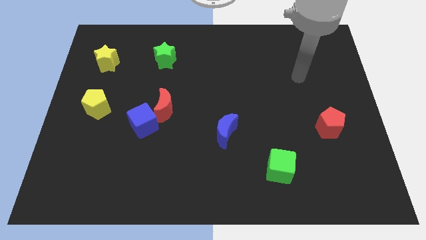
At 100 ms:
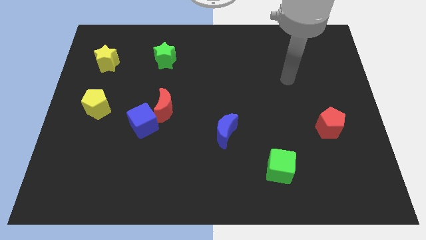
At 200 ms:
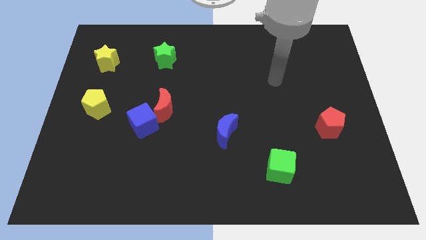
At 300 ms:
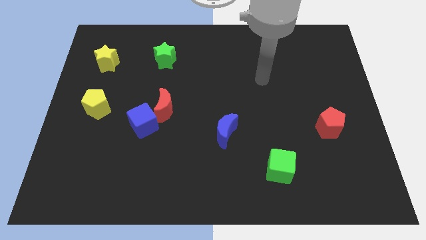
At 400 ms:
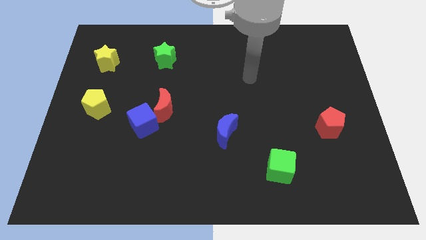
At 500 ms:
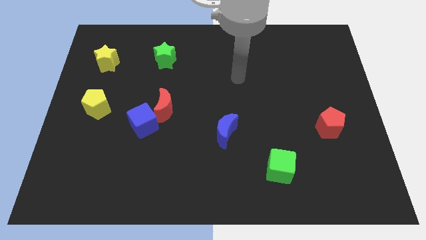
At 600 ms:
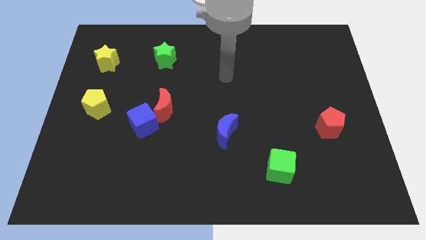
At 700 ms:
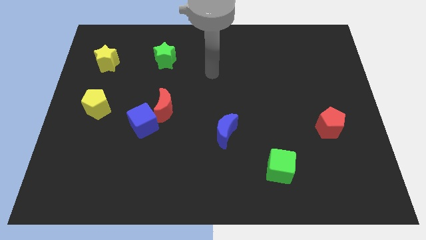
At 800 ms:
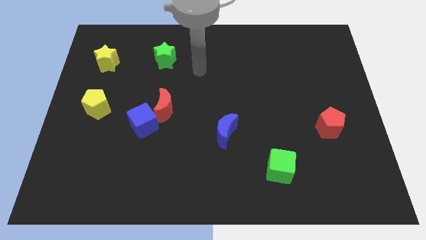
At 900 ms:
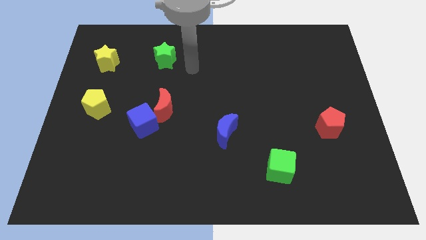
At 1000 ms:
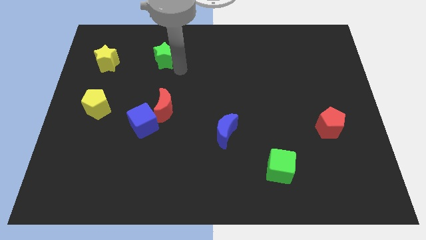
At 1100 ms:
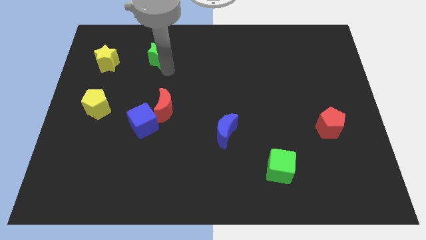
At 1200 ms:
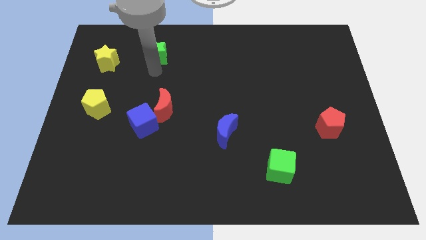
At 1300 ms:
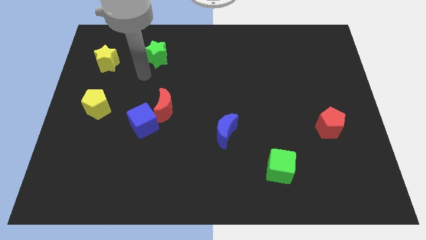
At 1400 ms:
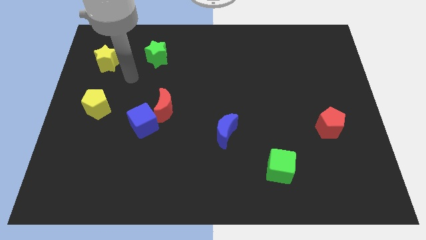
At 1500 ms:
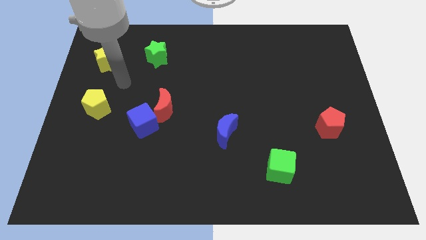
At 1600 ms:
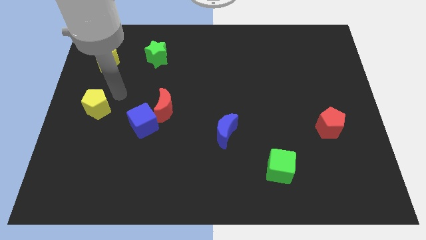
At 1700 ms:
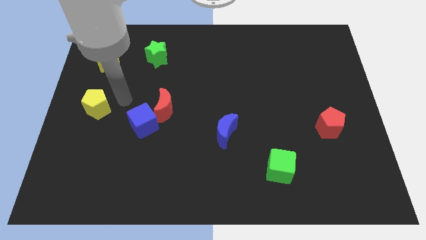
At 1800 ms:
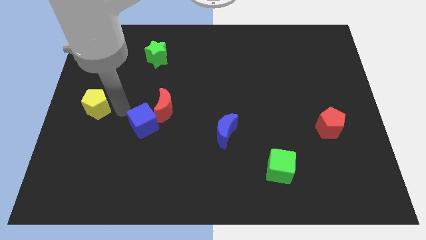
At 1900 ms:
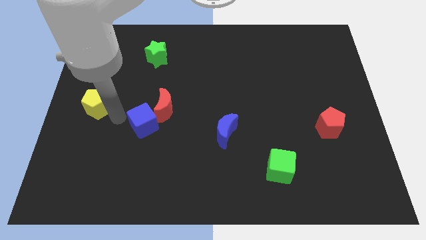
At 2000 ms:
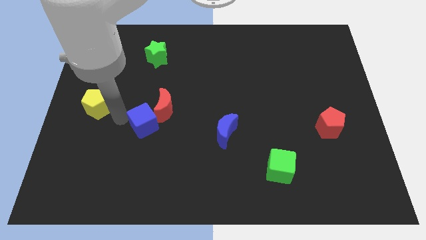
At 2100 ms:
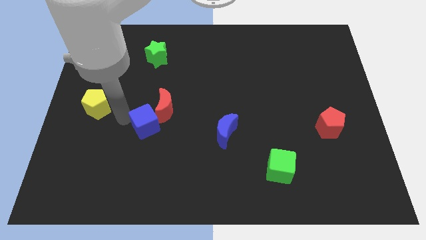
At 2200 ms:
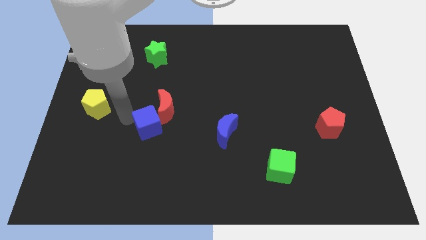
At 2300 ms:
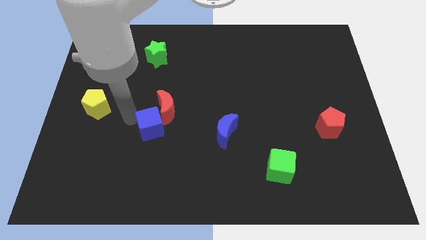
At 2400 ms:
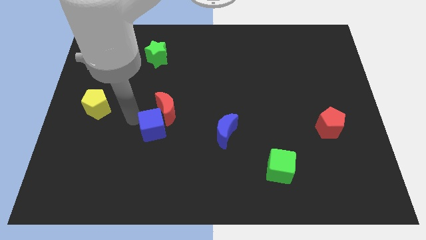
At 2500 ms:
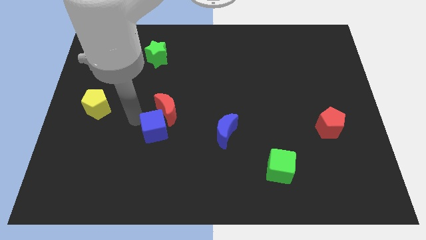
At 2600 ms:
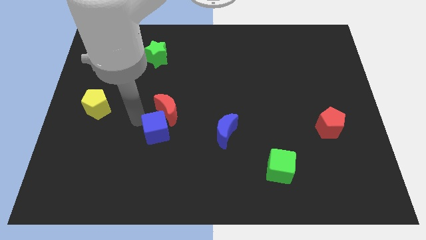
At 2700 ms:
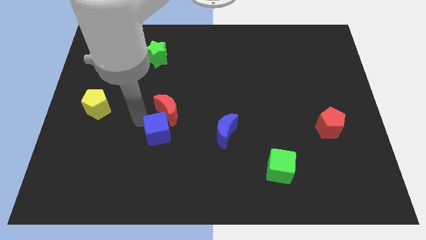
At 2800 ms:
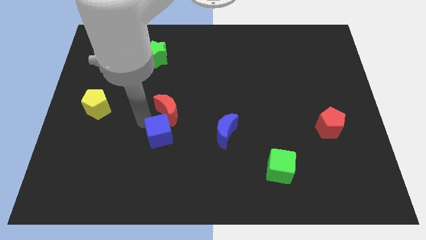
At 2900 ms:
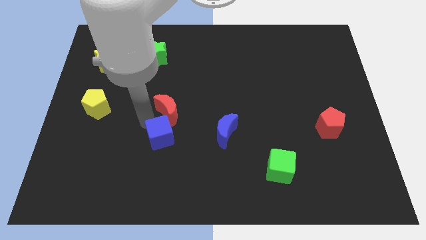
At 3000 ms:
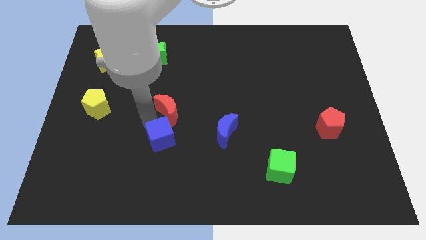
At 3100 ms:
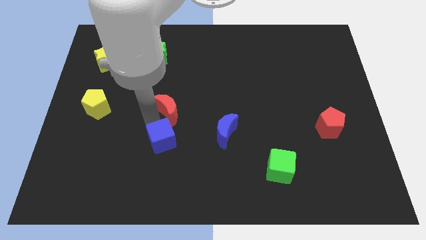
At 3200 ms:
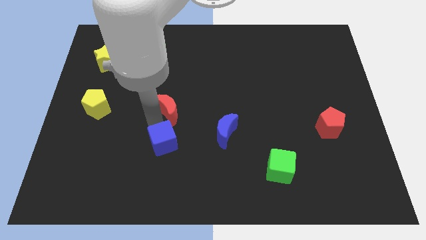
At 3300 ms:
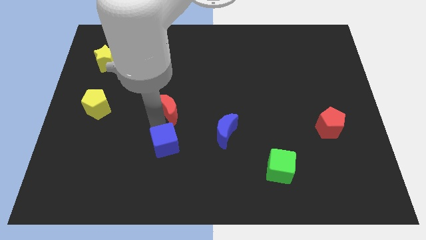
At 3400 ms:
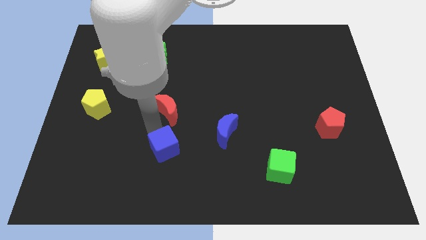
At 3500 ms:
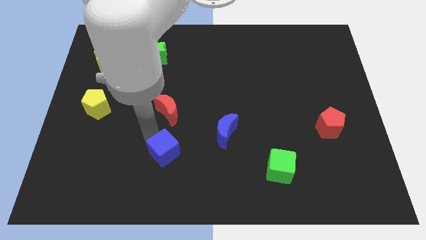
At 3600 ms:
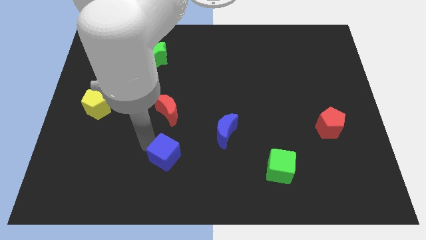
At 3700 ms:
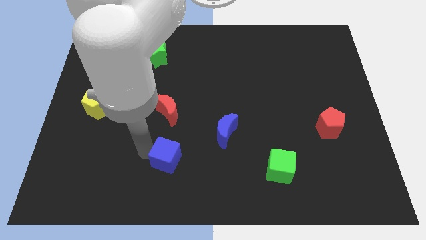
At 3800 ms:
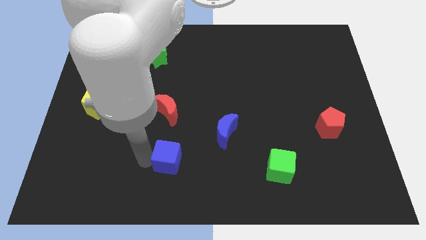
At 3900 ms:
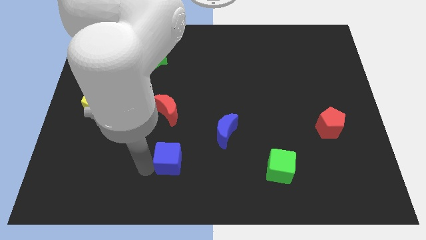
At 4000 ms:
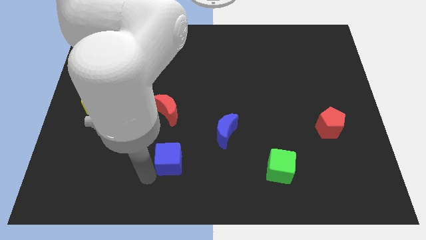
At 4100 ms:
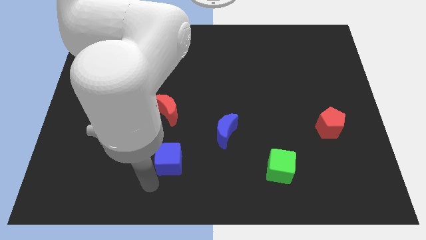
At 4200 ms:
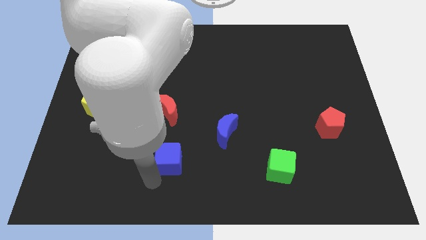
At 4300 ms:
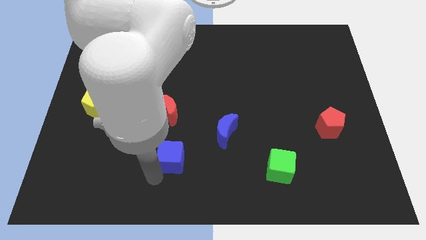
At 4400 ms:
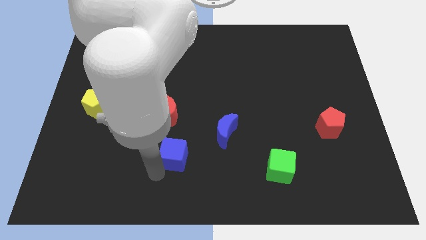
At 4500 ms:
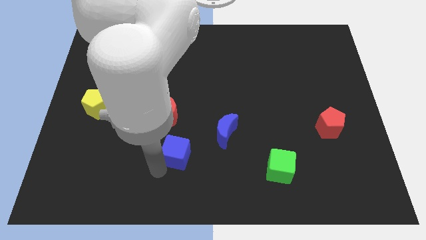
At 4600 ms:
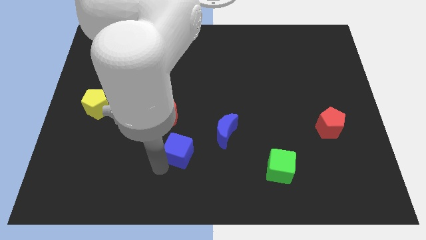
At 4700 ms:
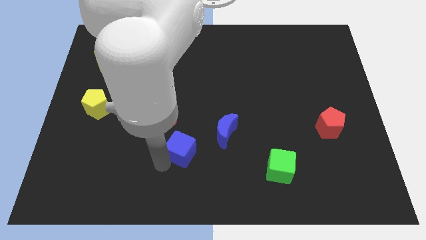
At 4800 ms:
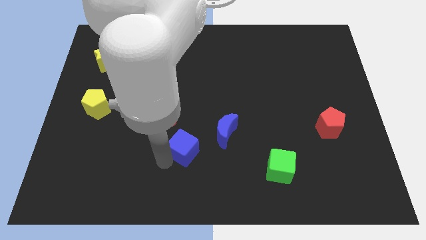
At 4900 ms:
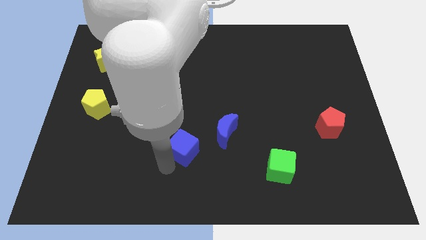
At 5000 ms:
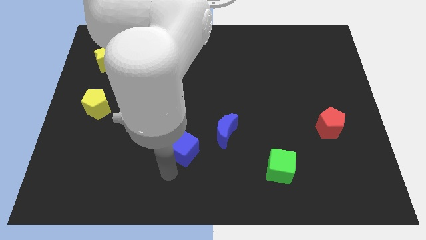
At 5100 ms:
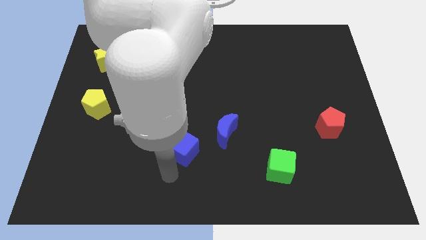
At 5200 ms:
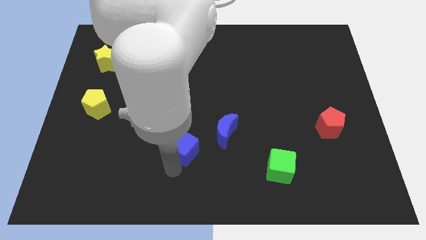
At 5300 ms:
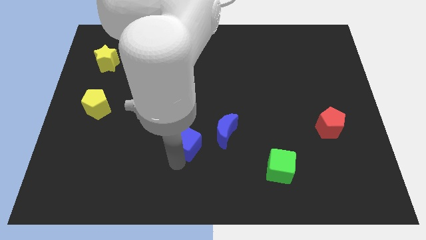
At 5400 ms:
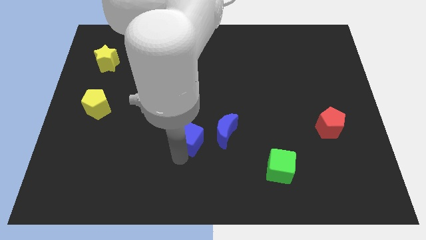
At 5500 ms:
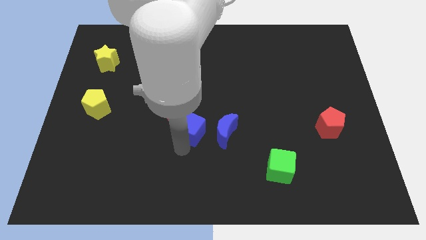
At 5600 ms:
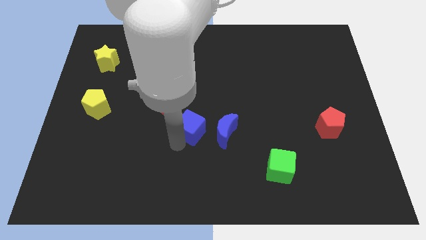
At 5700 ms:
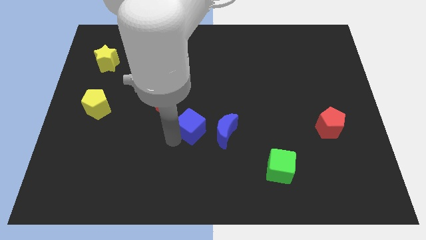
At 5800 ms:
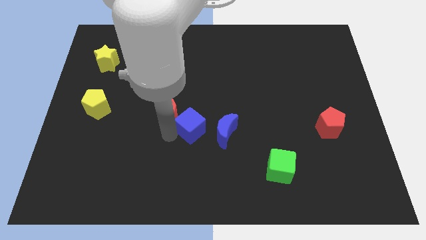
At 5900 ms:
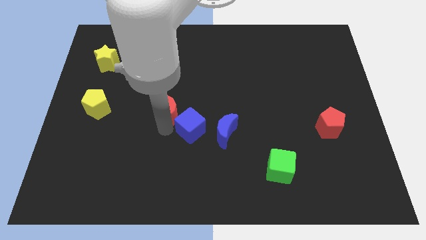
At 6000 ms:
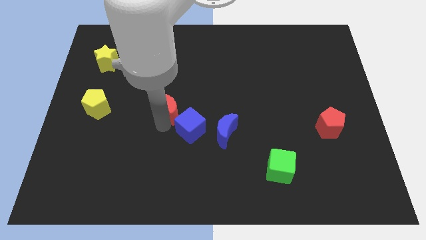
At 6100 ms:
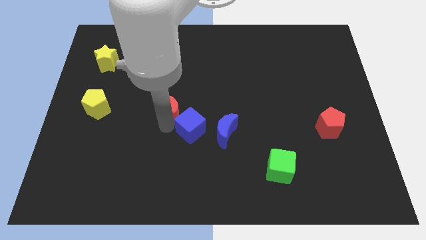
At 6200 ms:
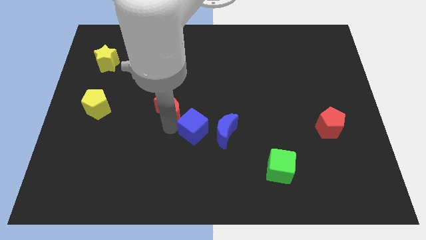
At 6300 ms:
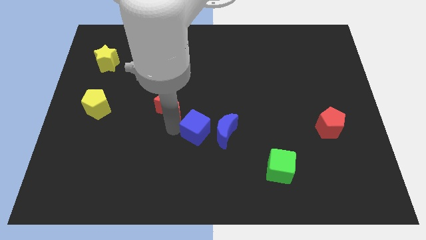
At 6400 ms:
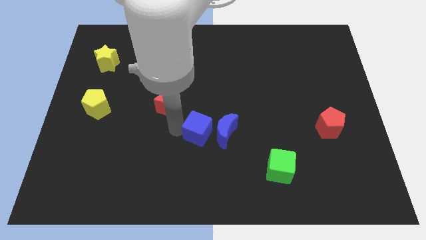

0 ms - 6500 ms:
move the blue cube to the blue moon
